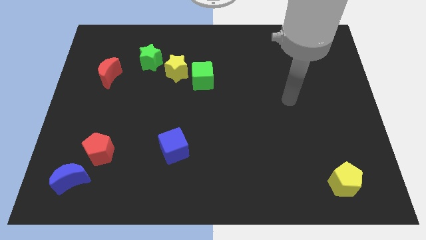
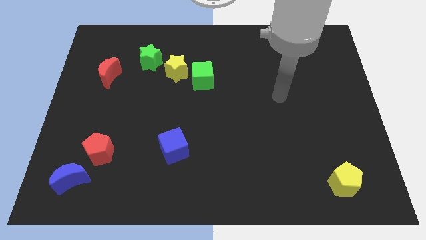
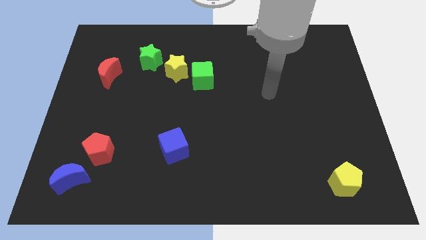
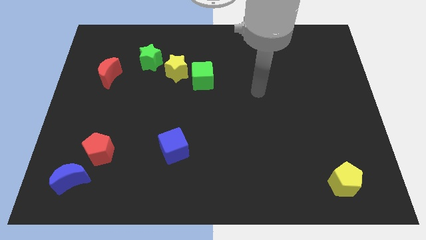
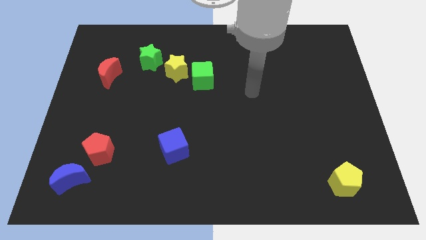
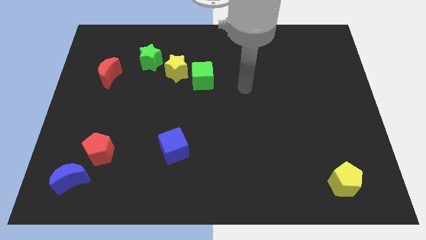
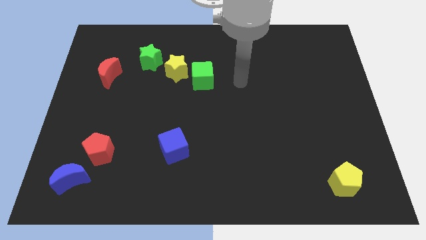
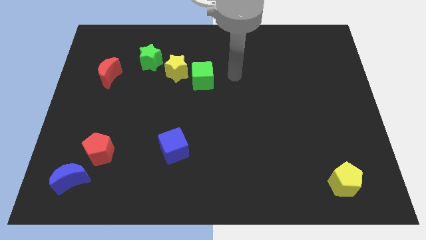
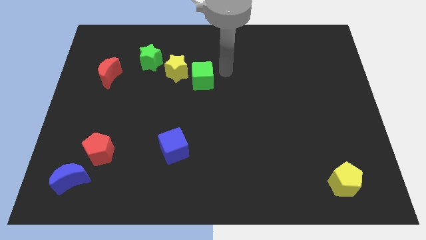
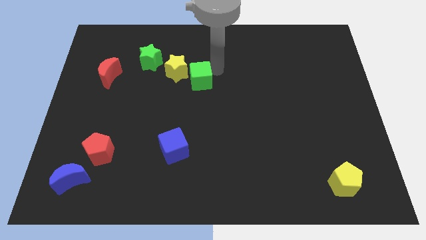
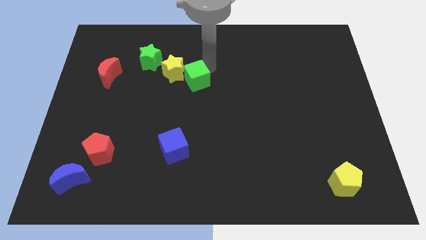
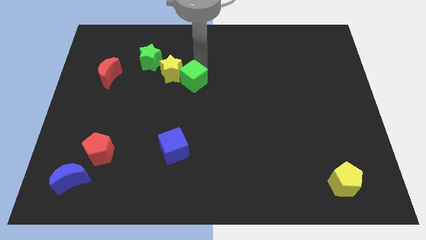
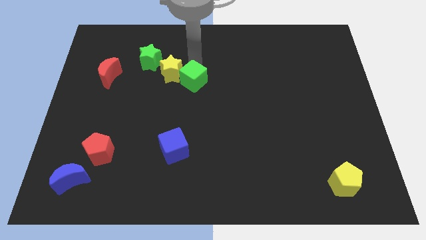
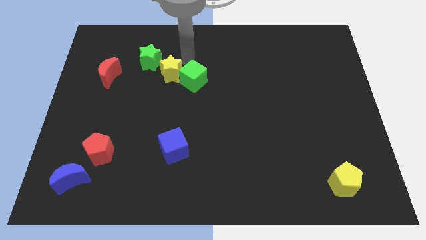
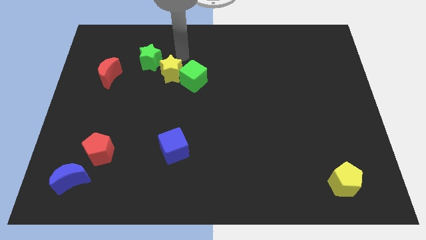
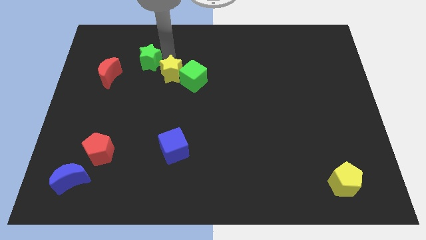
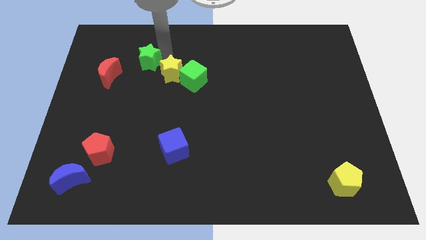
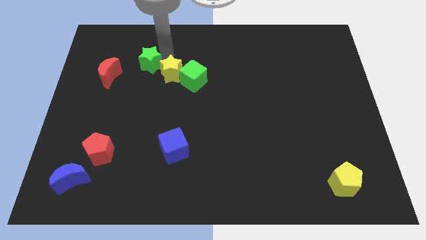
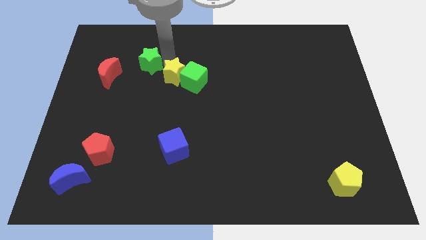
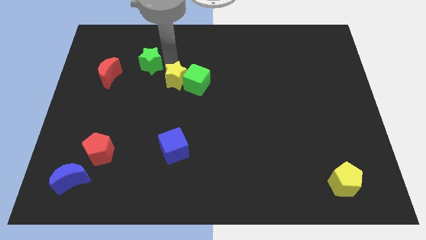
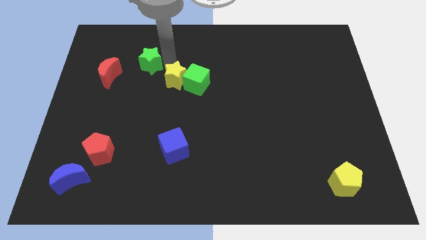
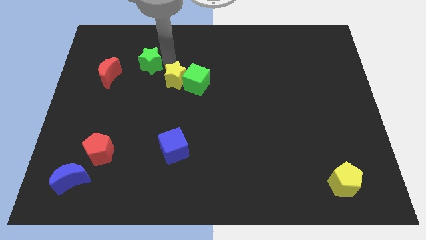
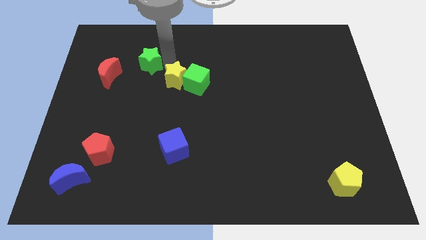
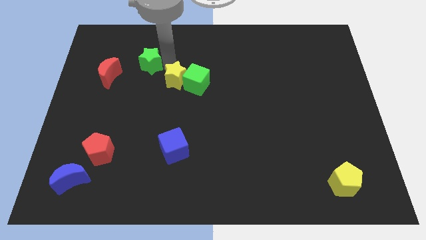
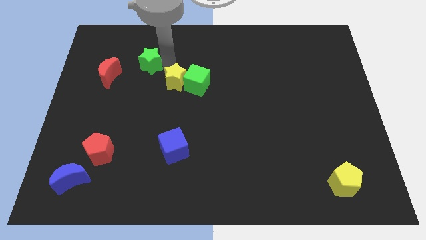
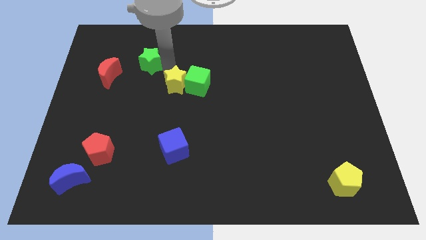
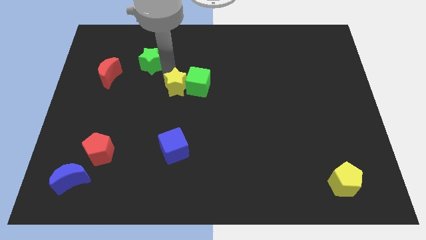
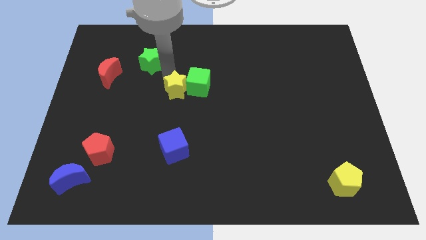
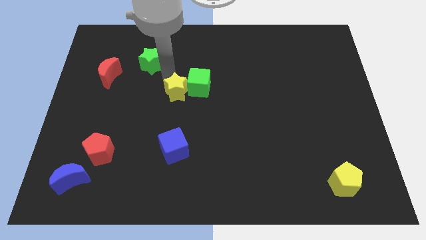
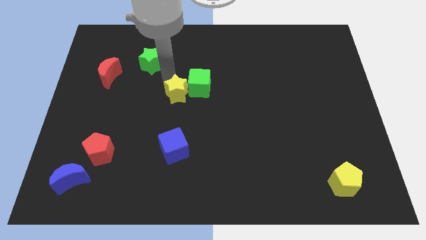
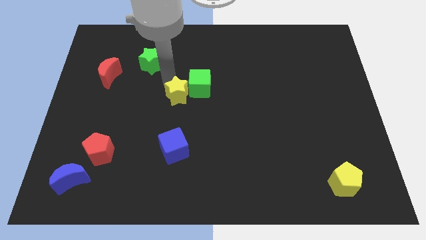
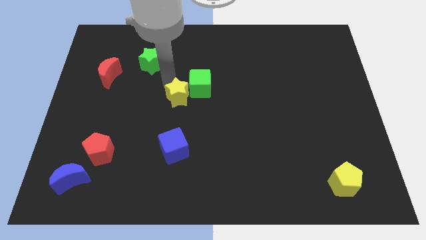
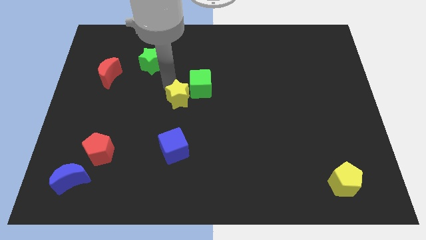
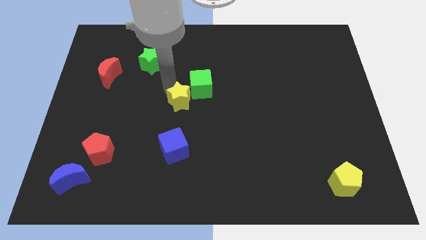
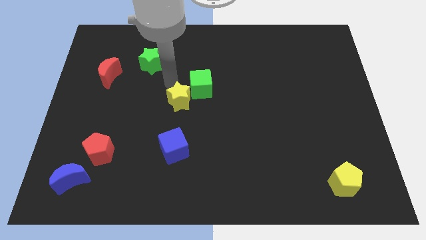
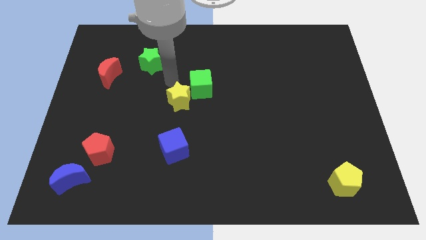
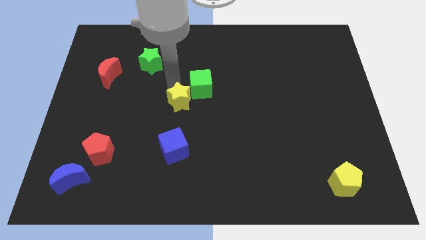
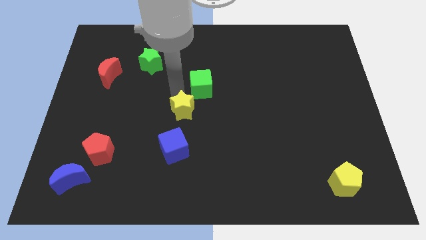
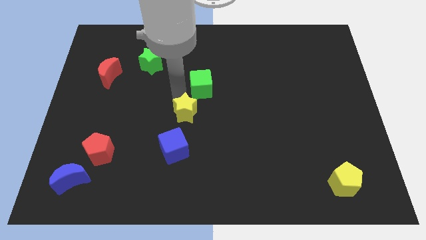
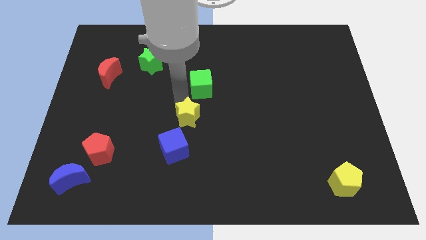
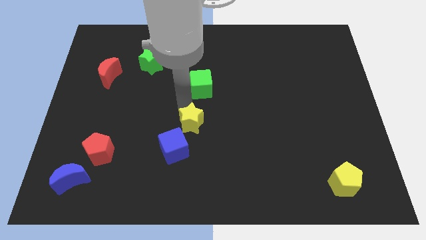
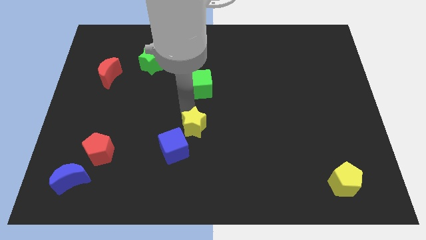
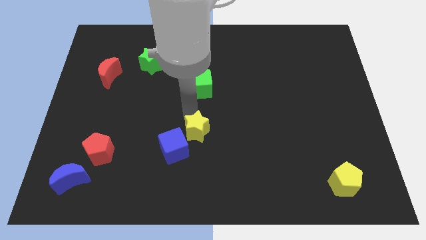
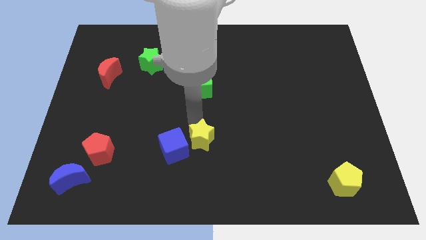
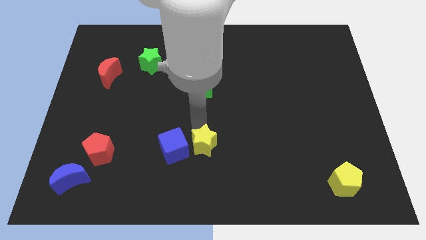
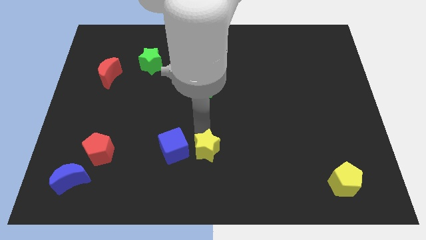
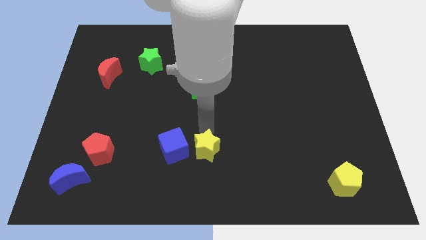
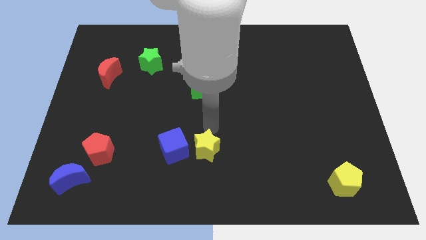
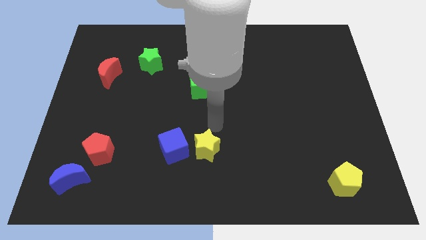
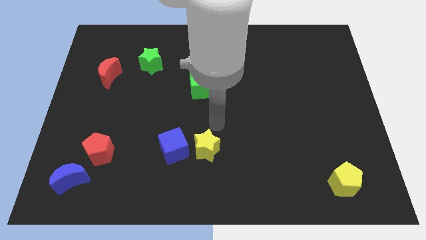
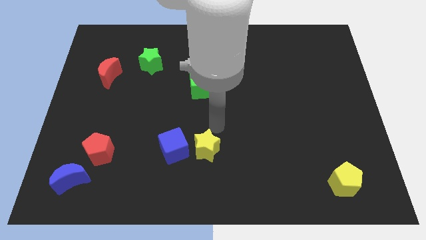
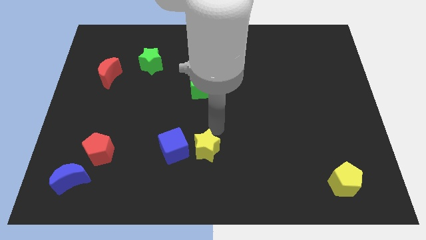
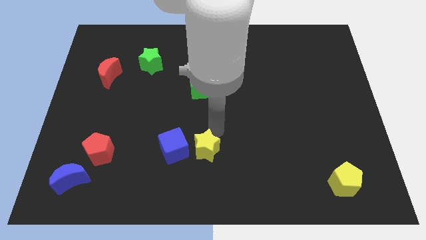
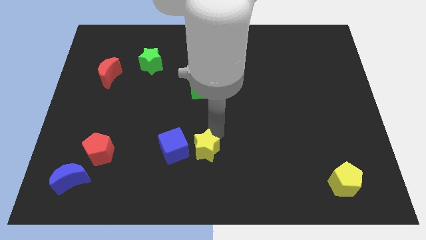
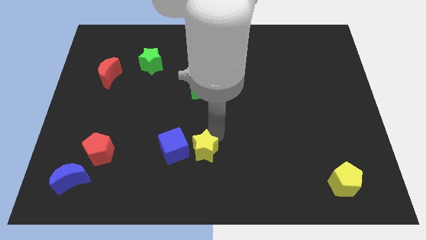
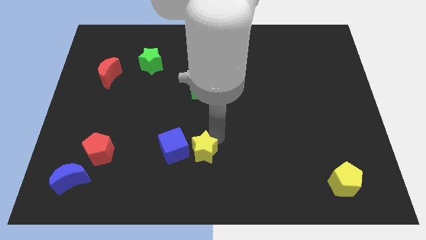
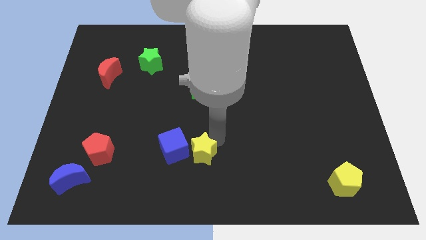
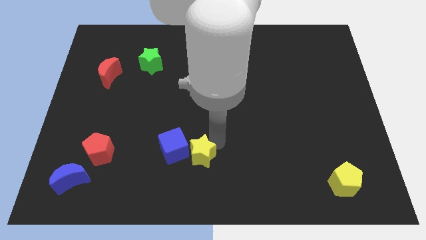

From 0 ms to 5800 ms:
push the yellow star to the bottom

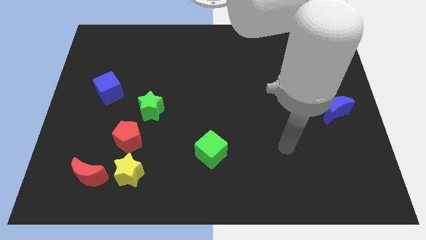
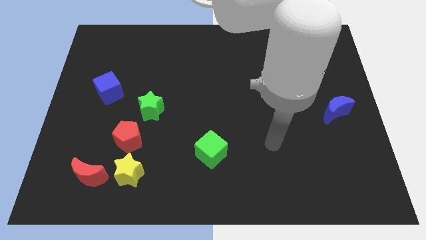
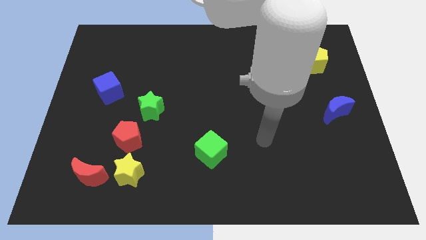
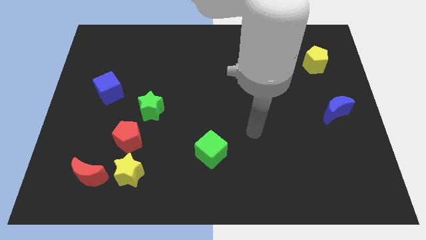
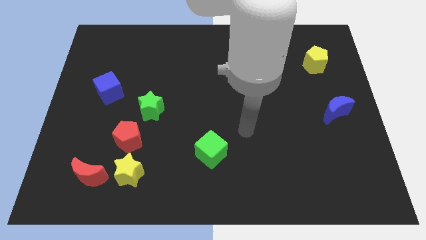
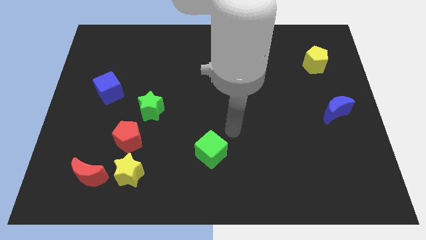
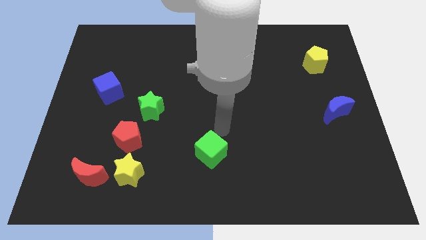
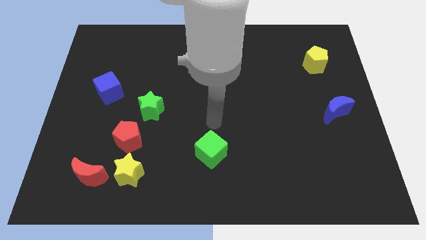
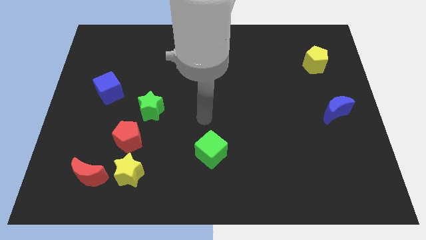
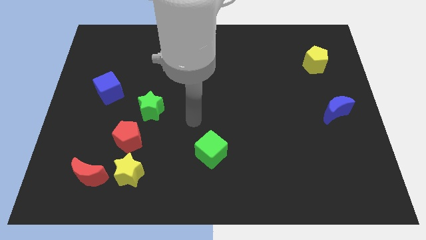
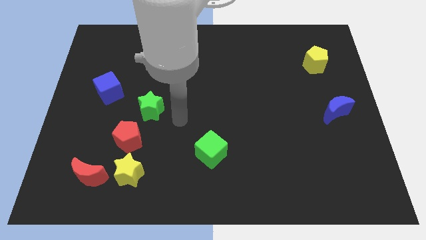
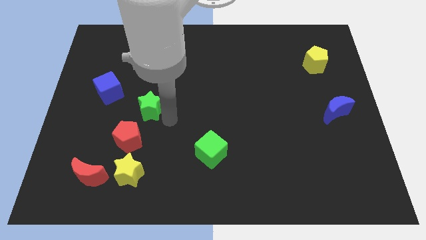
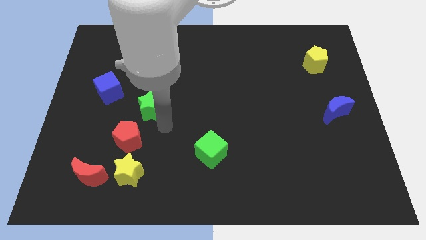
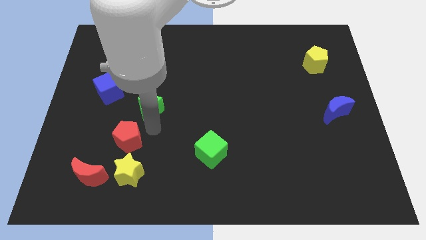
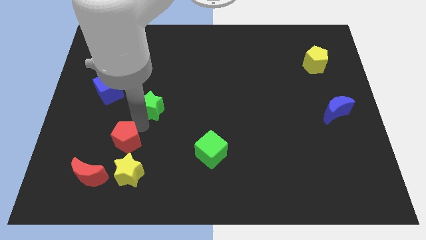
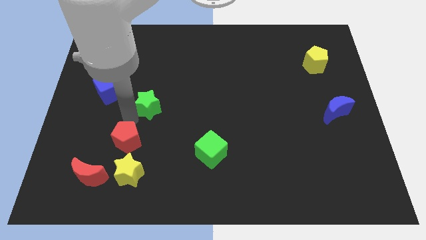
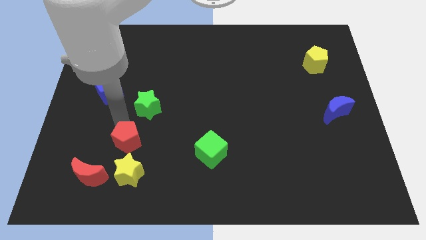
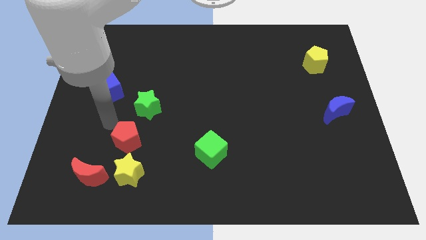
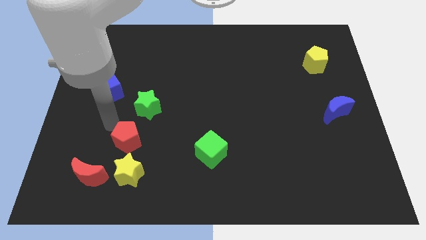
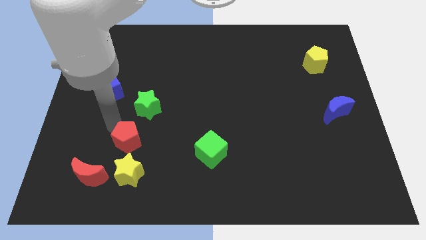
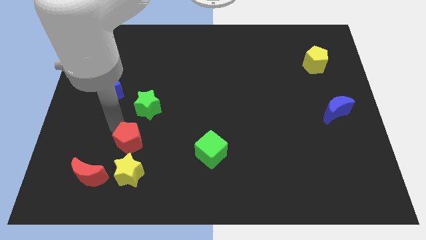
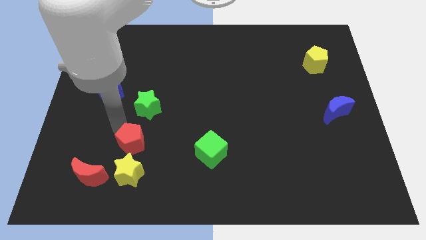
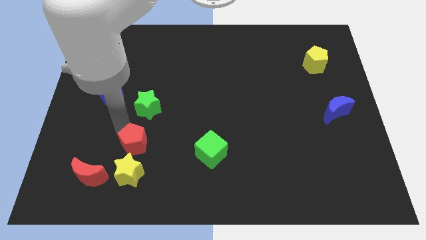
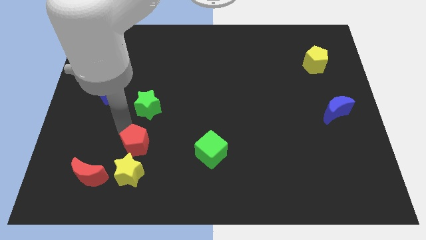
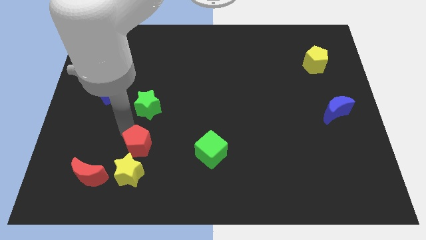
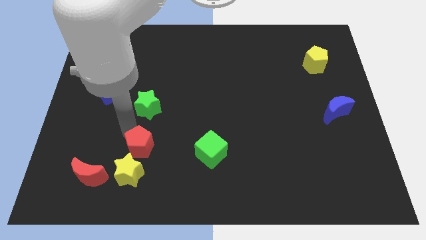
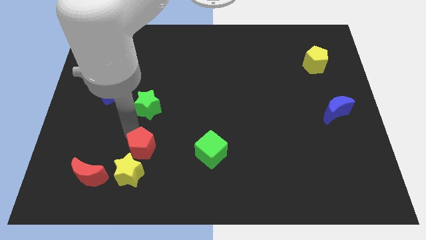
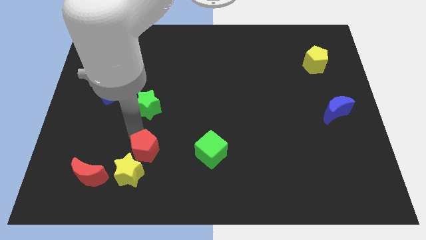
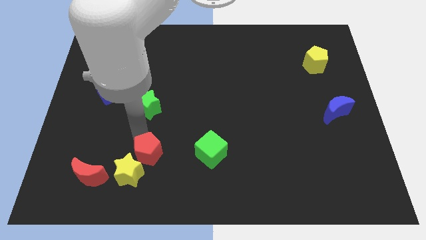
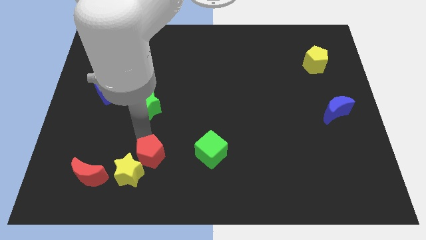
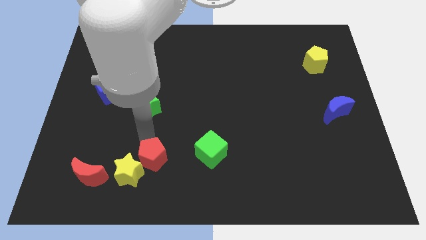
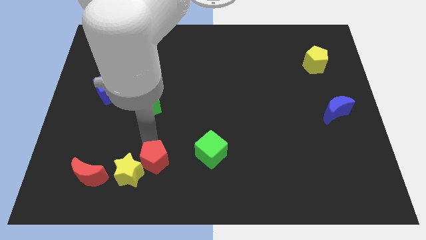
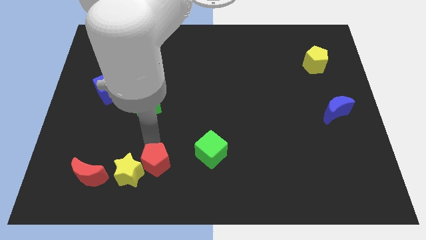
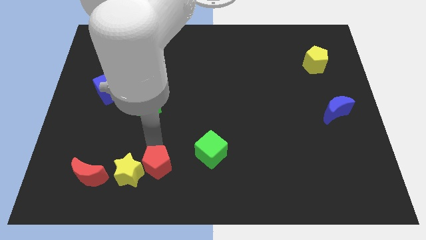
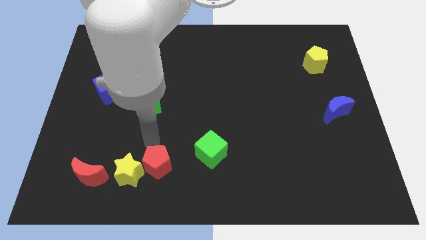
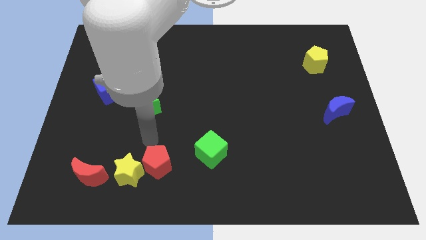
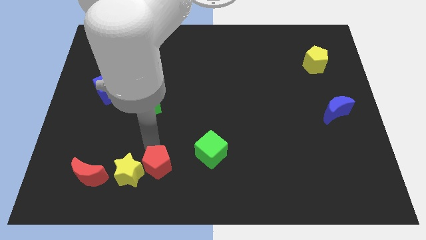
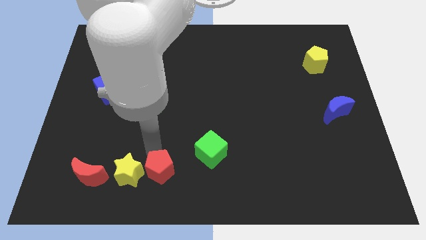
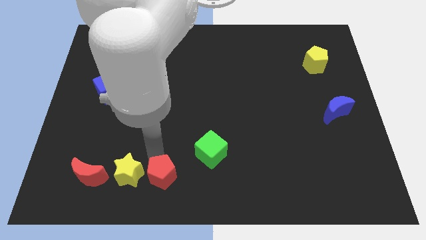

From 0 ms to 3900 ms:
move the red pentagon to the bottom side
